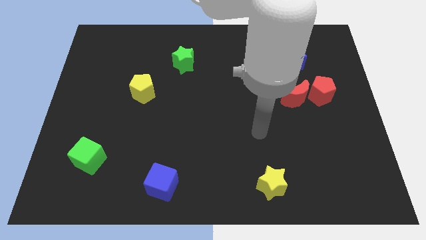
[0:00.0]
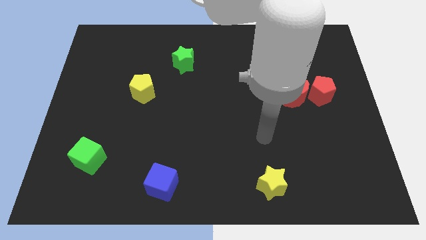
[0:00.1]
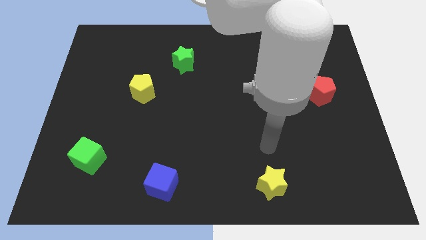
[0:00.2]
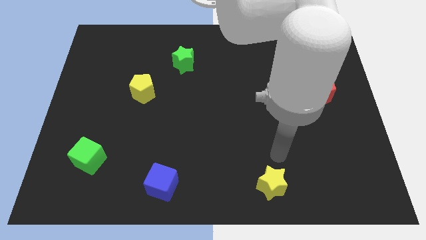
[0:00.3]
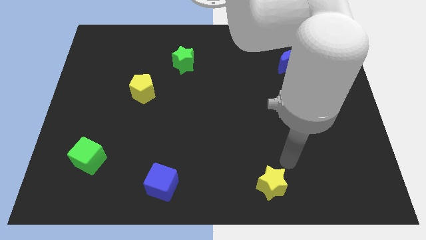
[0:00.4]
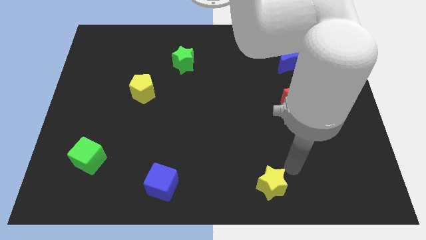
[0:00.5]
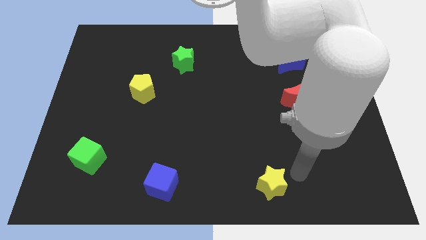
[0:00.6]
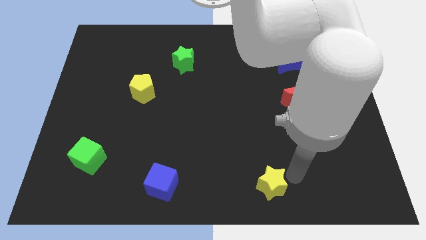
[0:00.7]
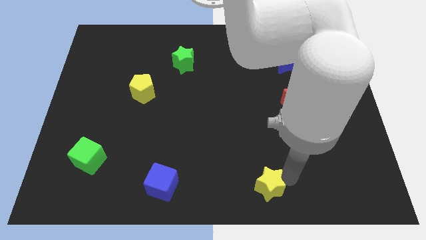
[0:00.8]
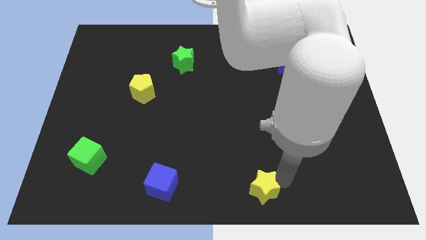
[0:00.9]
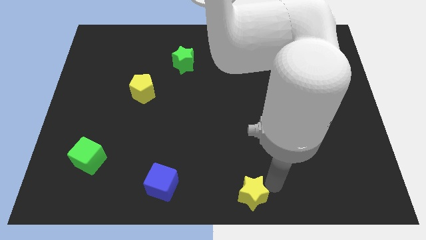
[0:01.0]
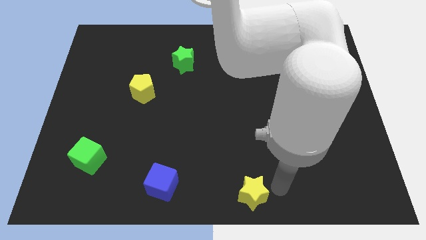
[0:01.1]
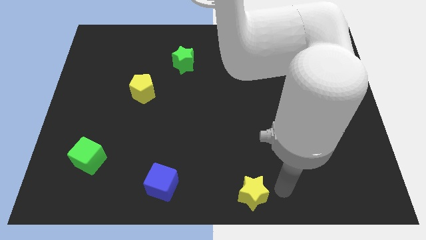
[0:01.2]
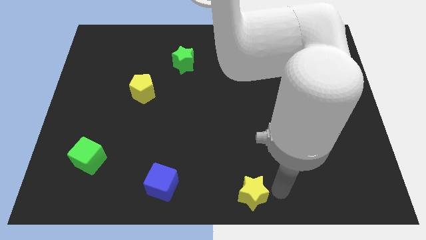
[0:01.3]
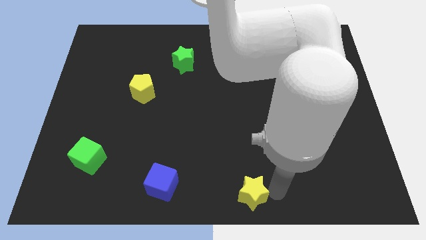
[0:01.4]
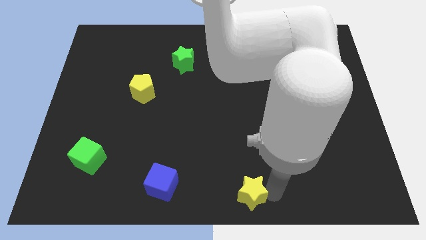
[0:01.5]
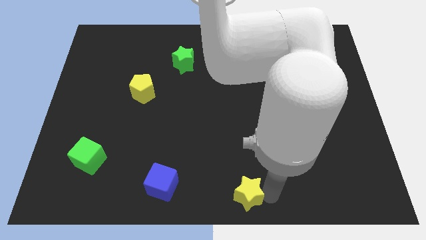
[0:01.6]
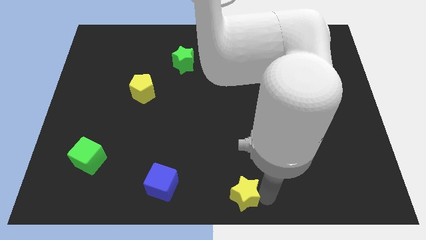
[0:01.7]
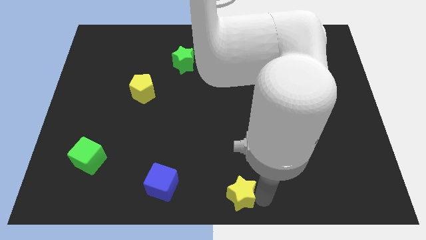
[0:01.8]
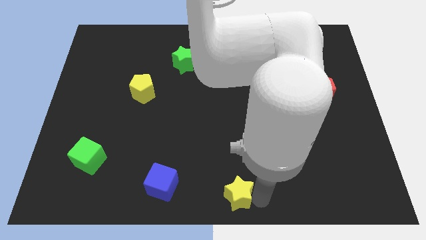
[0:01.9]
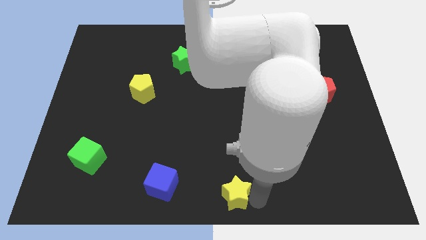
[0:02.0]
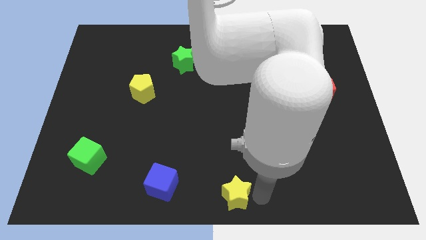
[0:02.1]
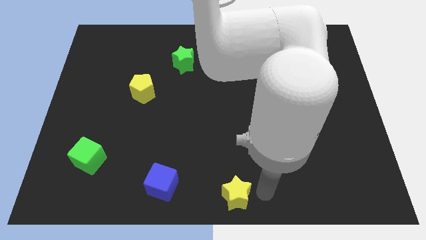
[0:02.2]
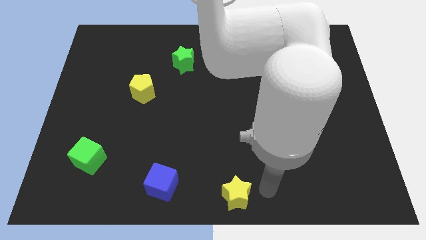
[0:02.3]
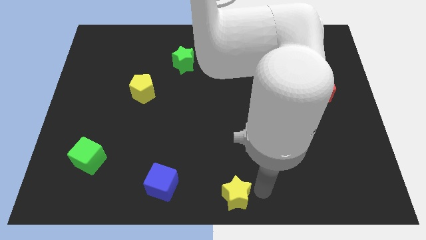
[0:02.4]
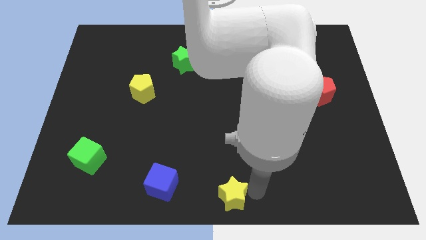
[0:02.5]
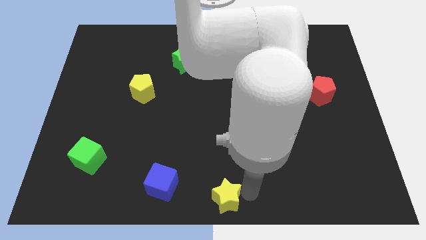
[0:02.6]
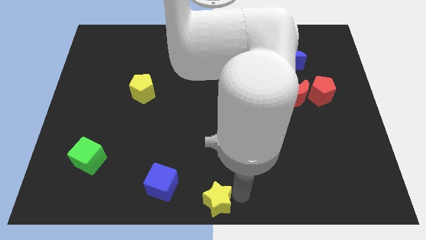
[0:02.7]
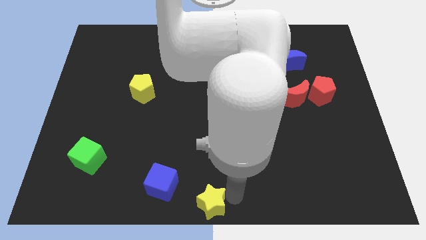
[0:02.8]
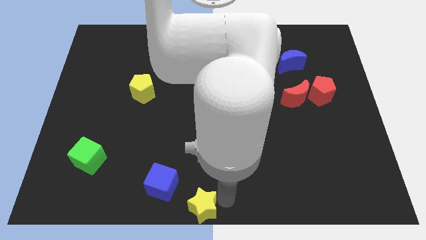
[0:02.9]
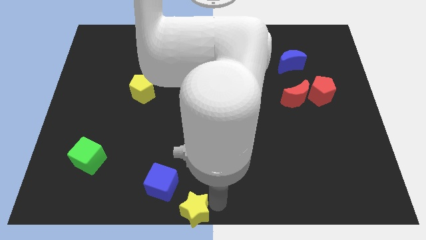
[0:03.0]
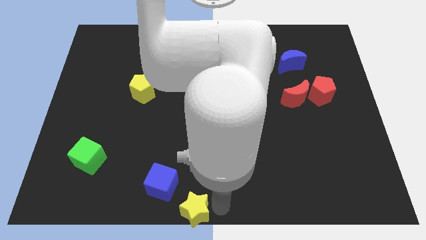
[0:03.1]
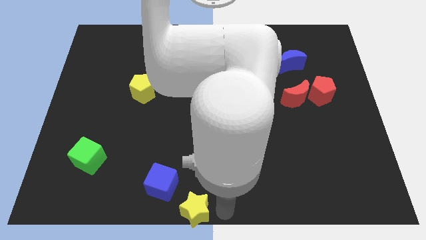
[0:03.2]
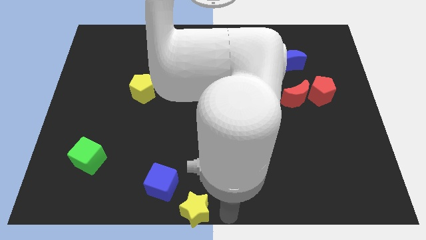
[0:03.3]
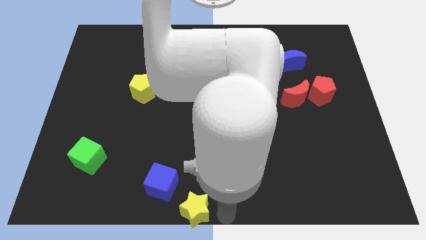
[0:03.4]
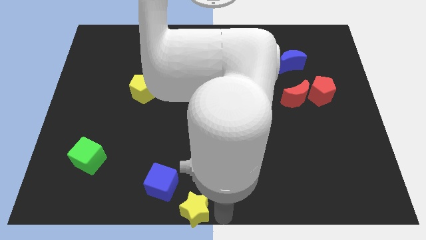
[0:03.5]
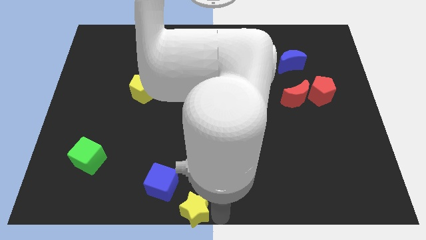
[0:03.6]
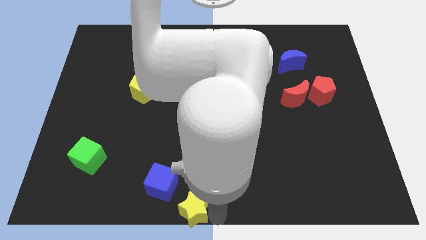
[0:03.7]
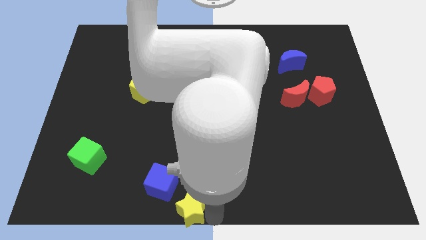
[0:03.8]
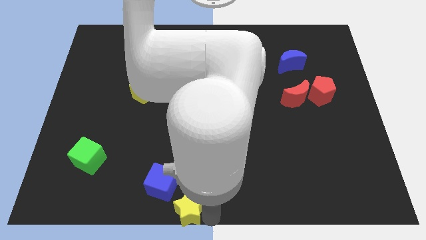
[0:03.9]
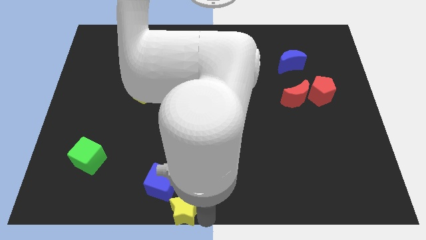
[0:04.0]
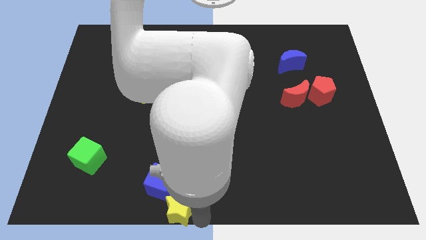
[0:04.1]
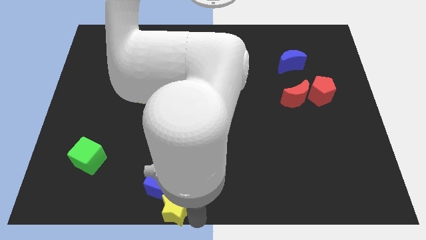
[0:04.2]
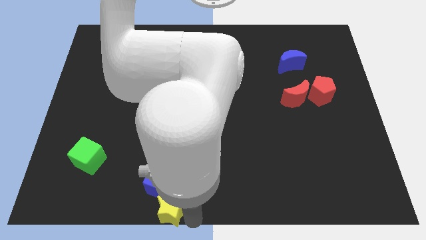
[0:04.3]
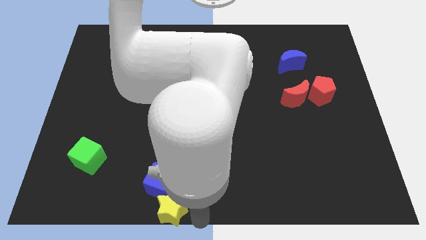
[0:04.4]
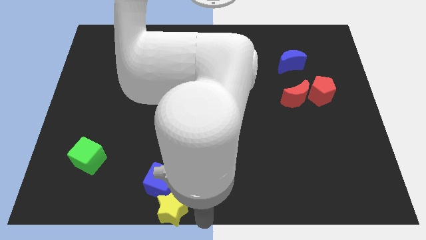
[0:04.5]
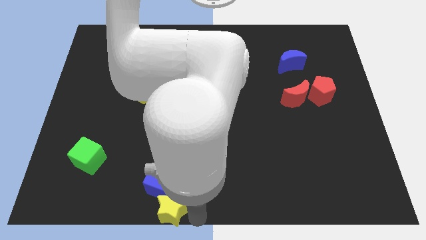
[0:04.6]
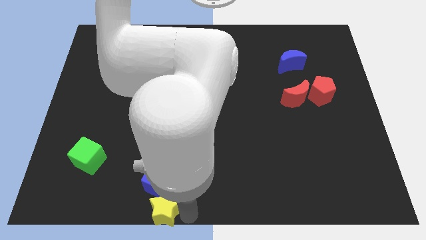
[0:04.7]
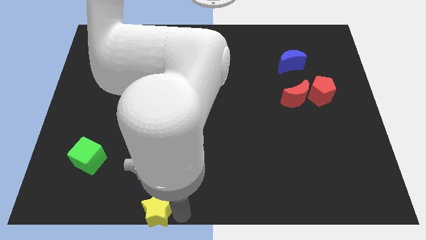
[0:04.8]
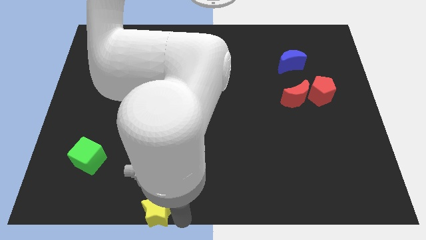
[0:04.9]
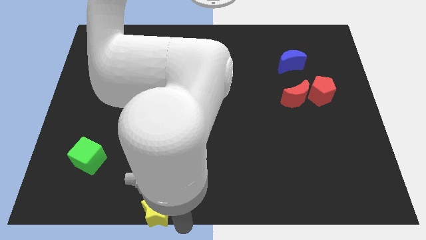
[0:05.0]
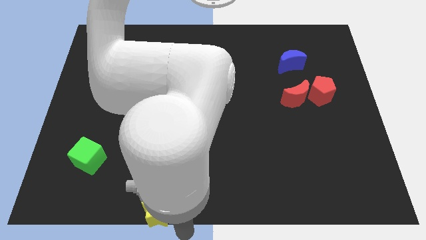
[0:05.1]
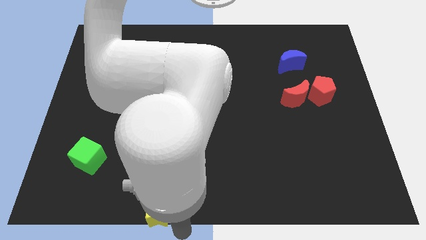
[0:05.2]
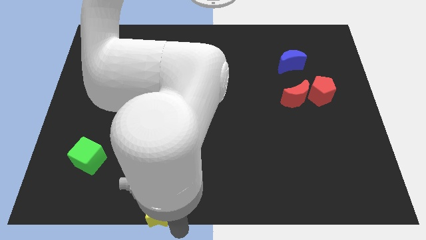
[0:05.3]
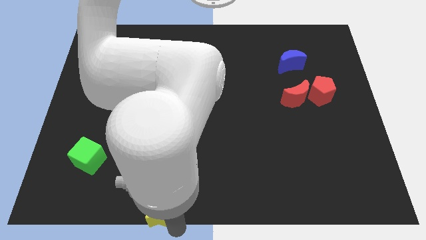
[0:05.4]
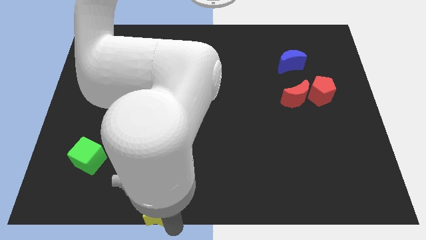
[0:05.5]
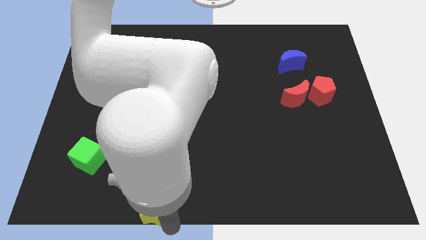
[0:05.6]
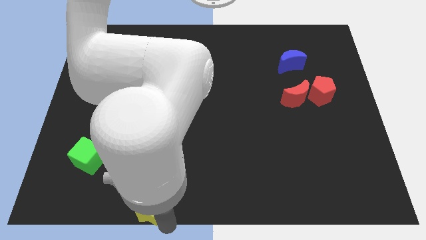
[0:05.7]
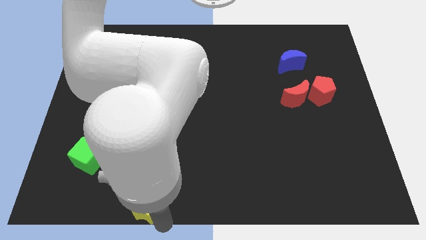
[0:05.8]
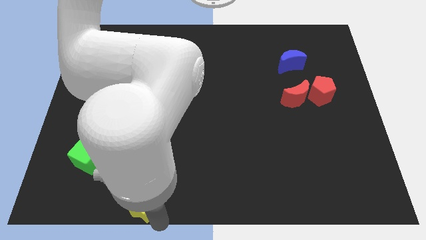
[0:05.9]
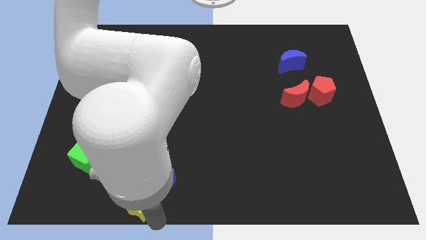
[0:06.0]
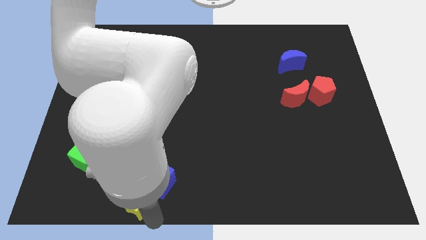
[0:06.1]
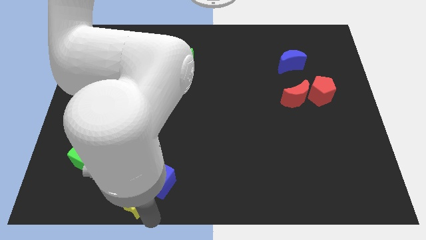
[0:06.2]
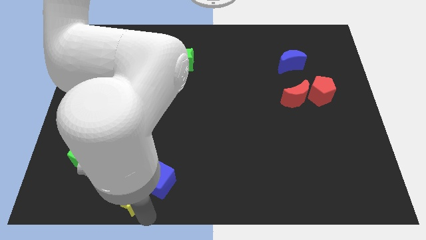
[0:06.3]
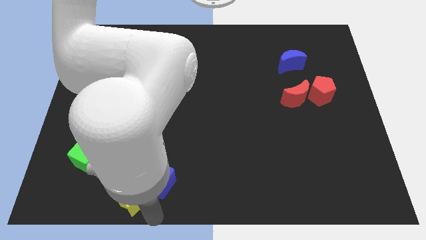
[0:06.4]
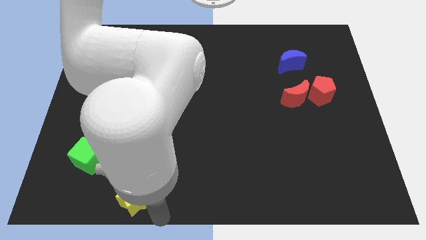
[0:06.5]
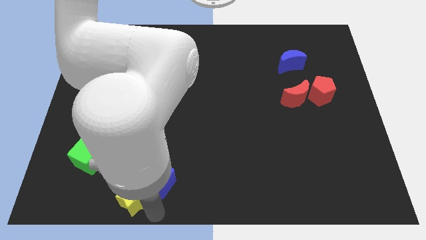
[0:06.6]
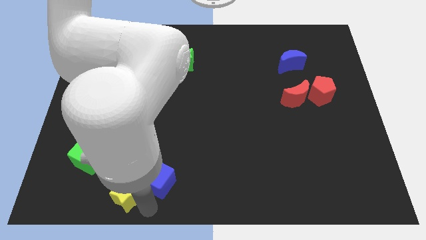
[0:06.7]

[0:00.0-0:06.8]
push the yellow star diagonally down and to the right of the green cube

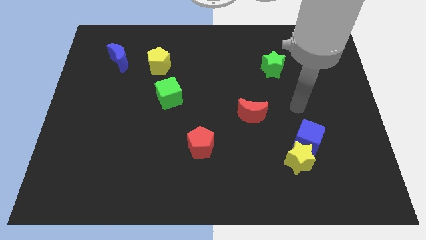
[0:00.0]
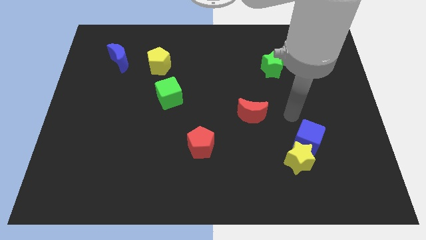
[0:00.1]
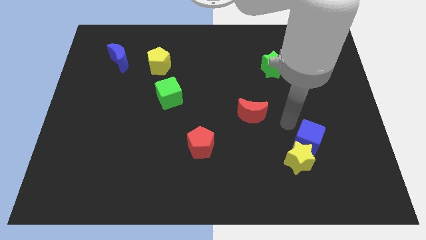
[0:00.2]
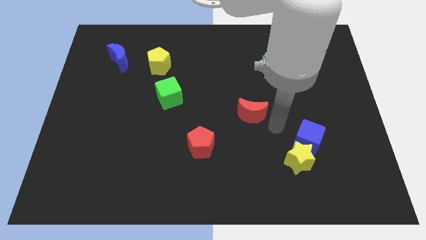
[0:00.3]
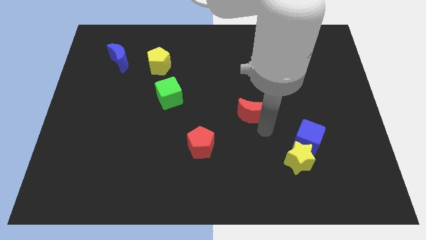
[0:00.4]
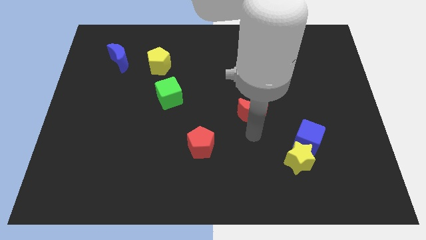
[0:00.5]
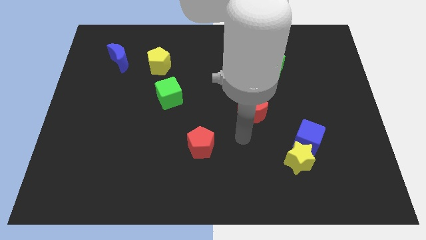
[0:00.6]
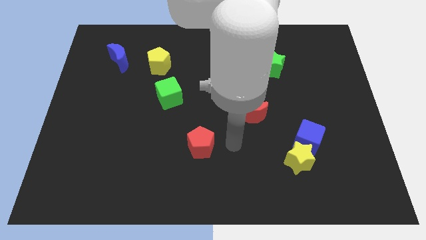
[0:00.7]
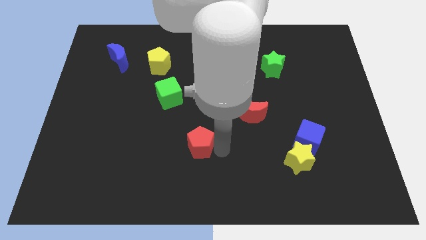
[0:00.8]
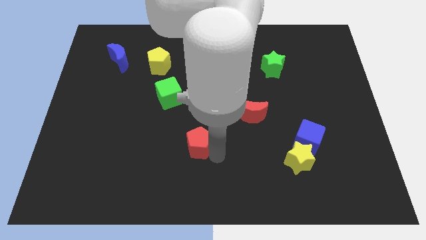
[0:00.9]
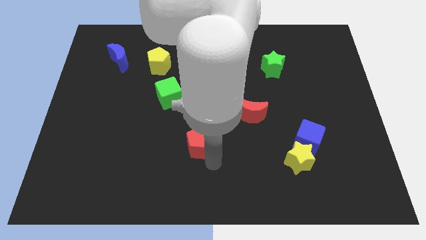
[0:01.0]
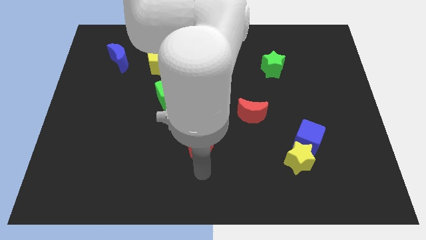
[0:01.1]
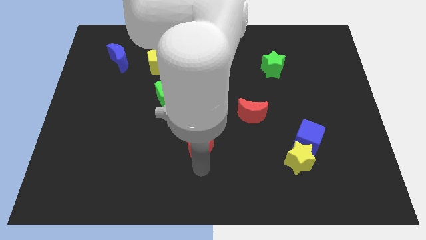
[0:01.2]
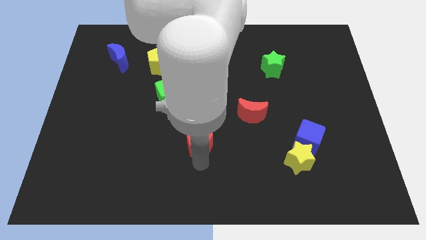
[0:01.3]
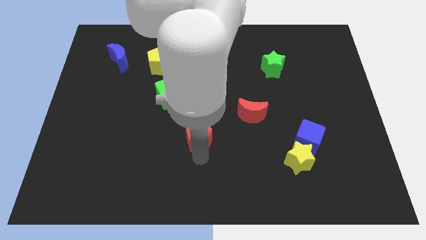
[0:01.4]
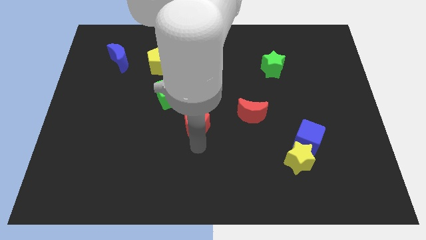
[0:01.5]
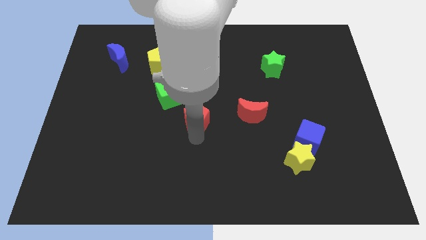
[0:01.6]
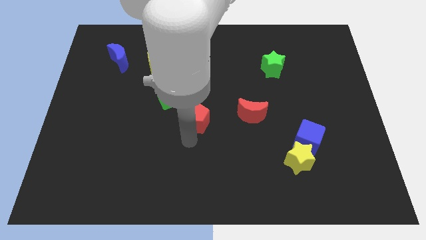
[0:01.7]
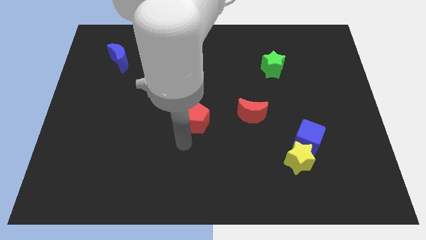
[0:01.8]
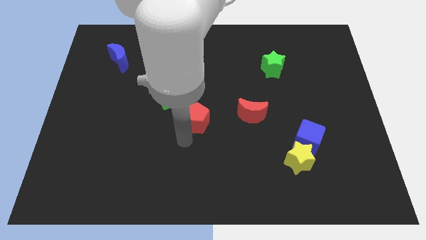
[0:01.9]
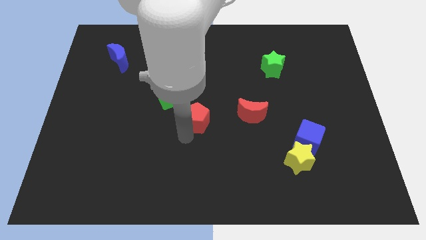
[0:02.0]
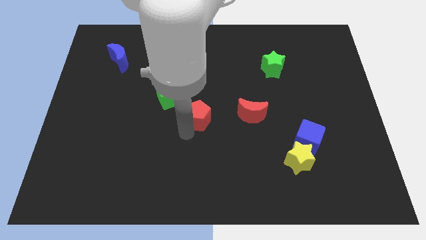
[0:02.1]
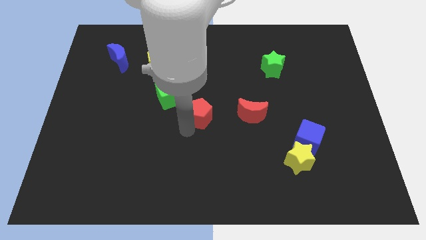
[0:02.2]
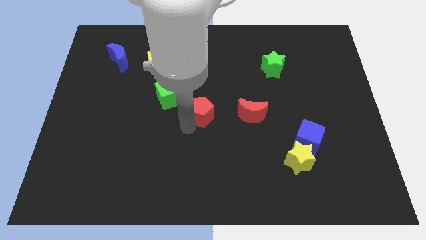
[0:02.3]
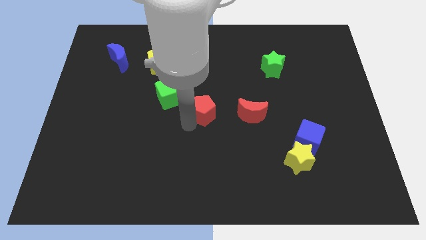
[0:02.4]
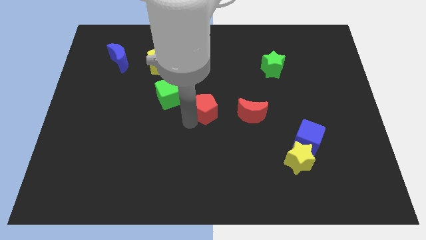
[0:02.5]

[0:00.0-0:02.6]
move the red pentagon just right of the green cube
